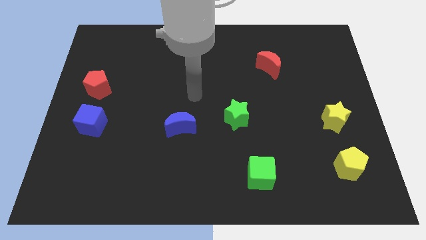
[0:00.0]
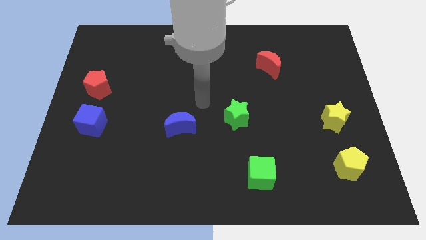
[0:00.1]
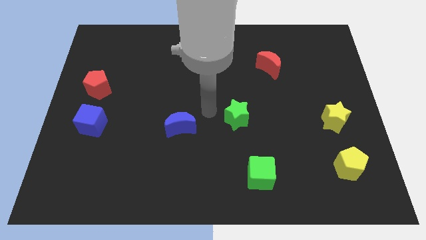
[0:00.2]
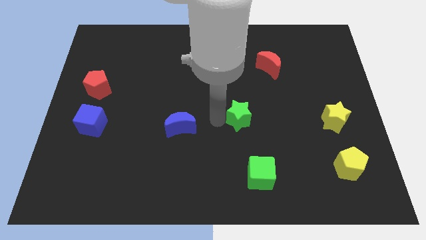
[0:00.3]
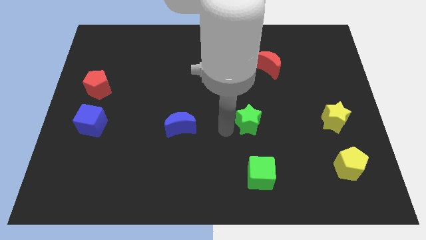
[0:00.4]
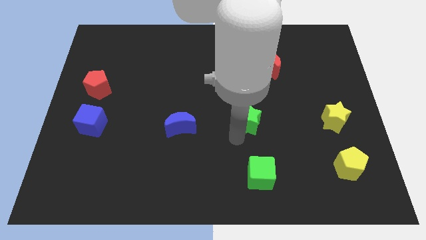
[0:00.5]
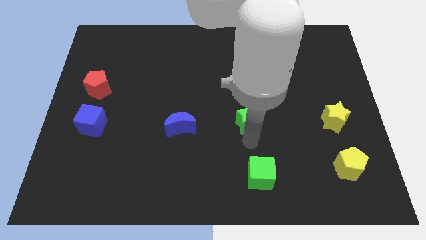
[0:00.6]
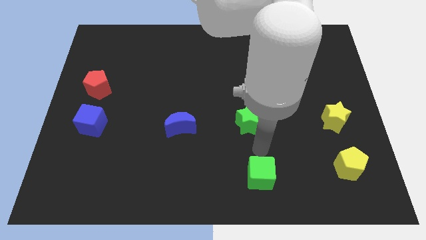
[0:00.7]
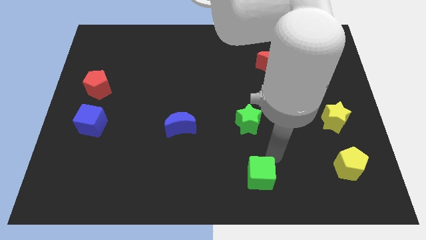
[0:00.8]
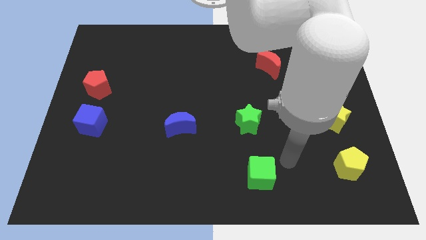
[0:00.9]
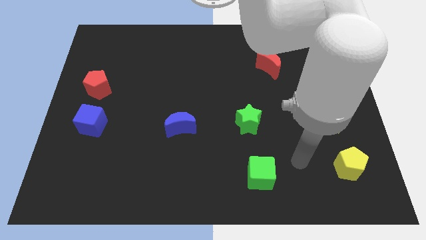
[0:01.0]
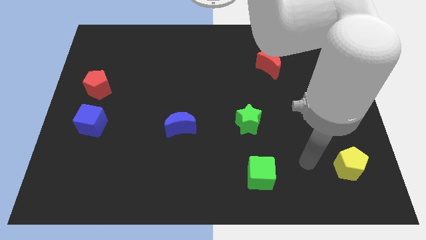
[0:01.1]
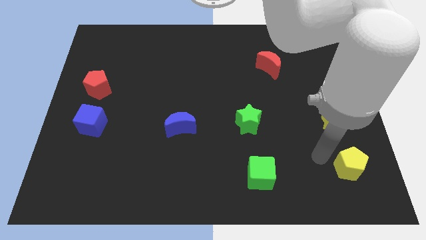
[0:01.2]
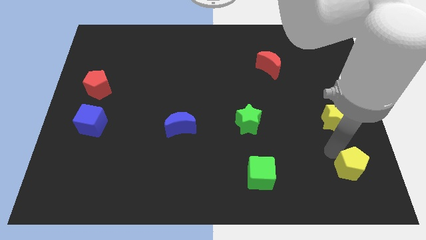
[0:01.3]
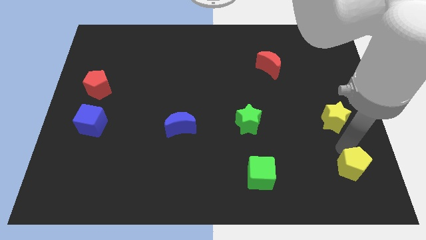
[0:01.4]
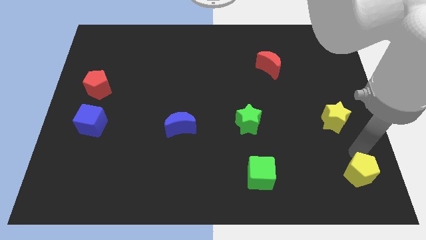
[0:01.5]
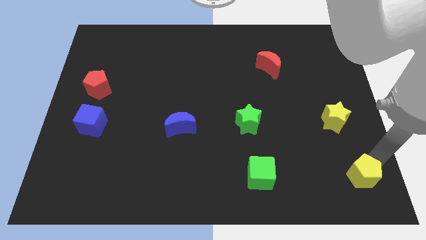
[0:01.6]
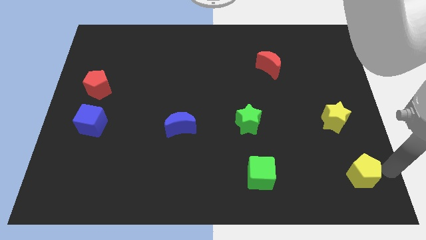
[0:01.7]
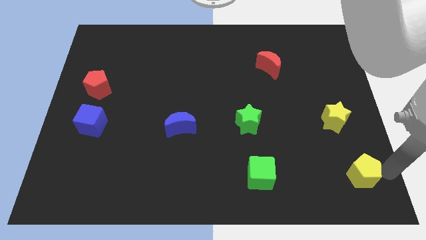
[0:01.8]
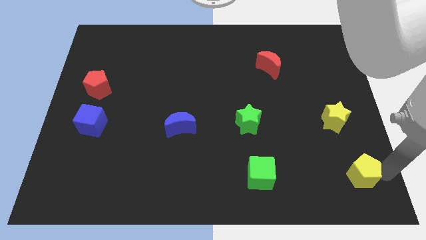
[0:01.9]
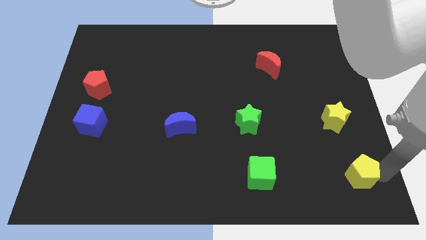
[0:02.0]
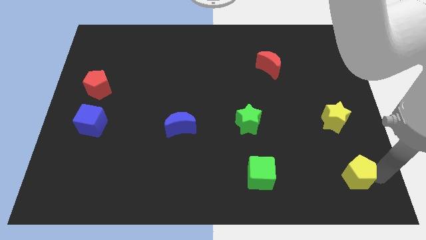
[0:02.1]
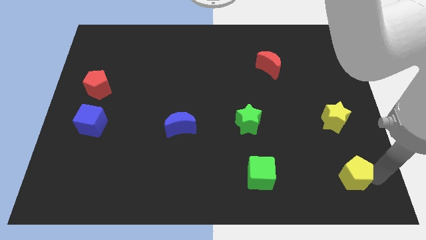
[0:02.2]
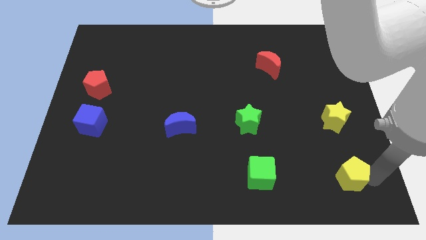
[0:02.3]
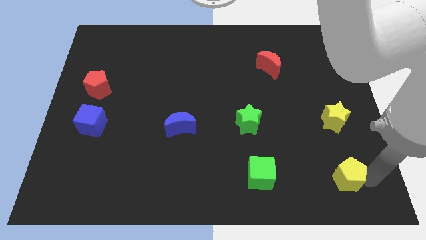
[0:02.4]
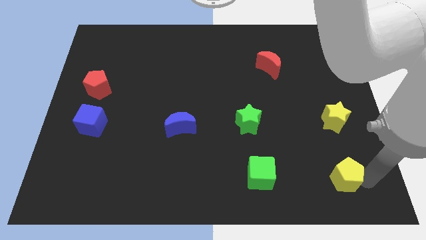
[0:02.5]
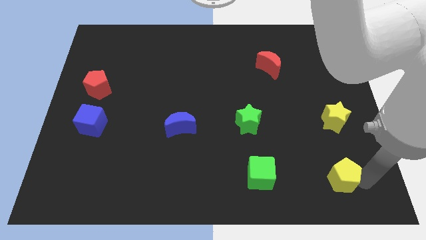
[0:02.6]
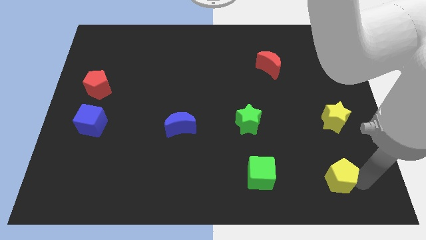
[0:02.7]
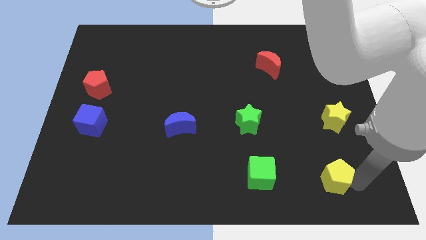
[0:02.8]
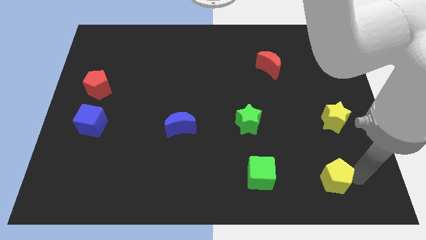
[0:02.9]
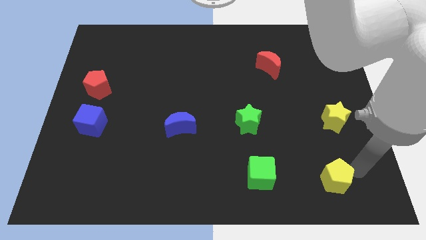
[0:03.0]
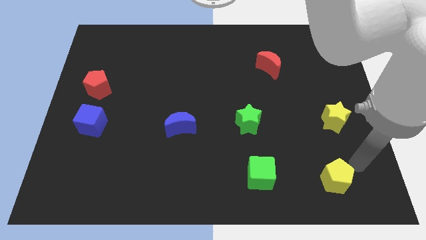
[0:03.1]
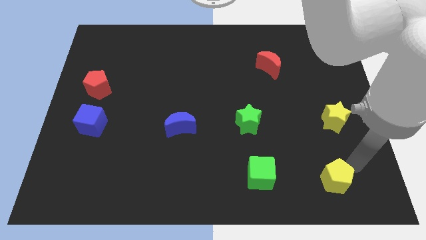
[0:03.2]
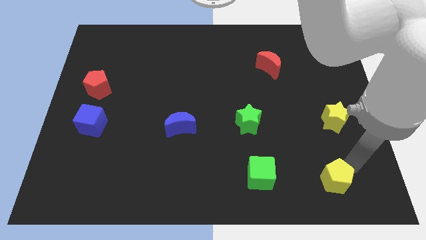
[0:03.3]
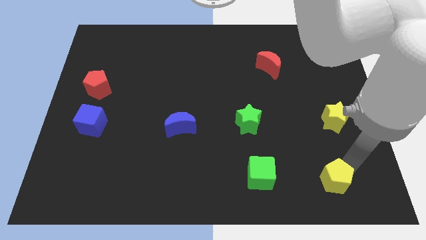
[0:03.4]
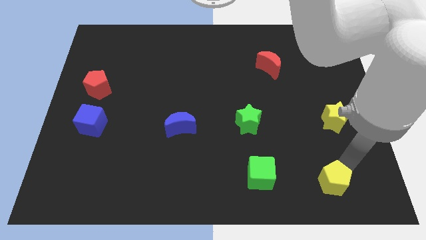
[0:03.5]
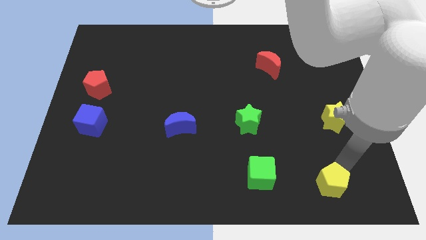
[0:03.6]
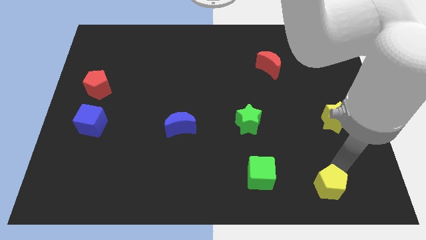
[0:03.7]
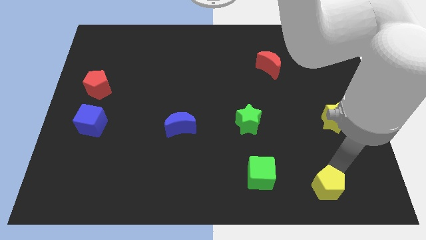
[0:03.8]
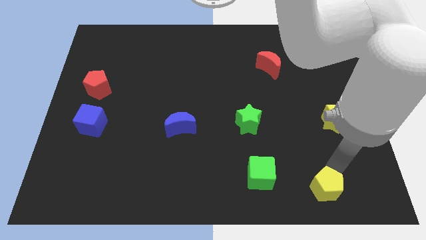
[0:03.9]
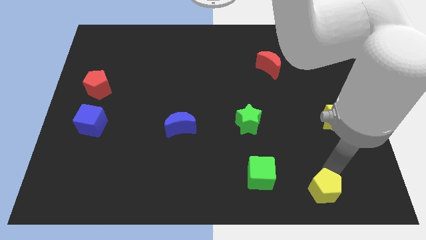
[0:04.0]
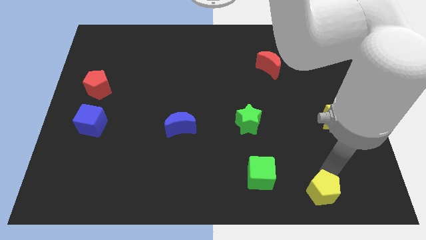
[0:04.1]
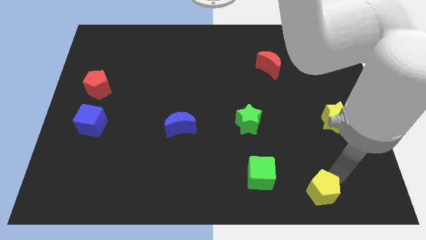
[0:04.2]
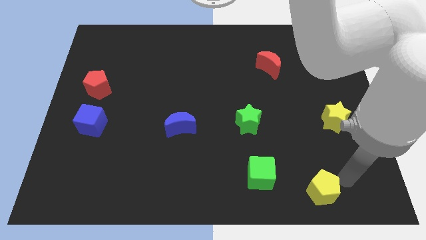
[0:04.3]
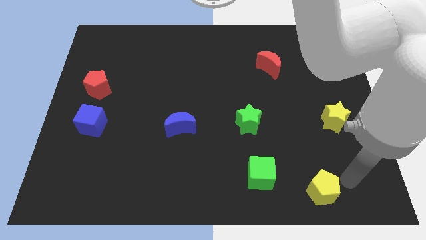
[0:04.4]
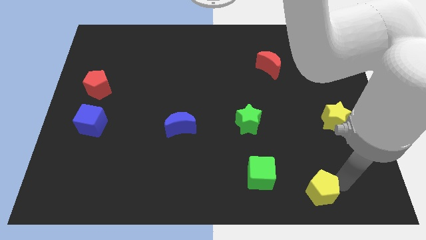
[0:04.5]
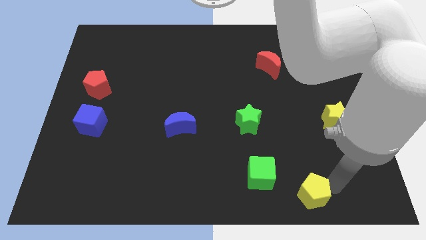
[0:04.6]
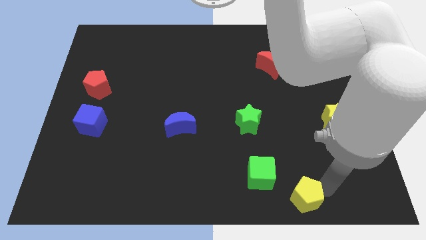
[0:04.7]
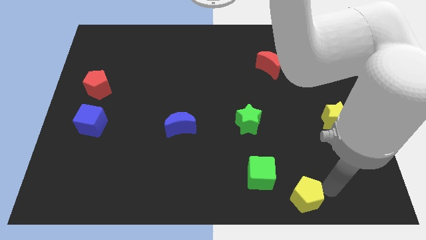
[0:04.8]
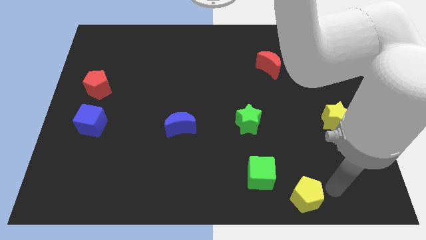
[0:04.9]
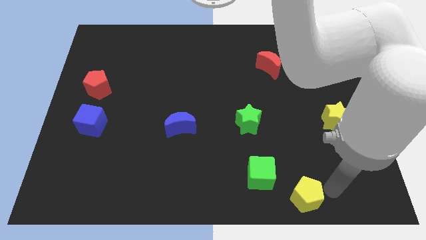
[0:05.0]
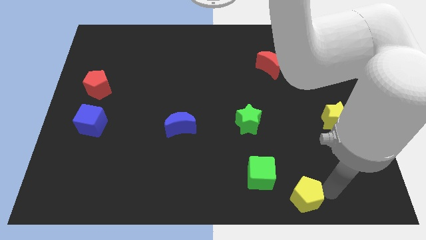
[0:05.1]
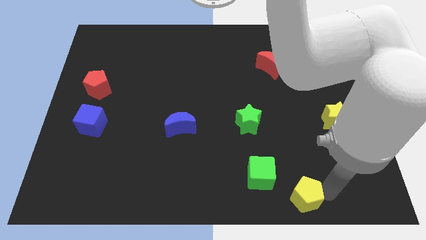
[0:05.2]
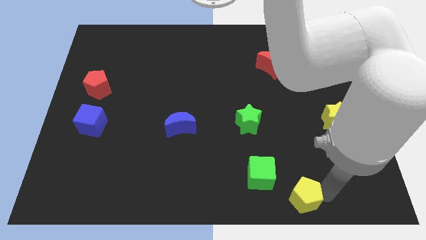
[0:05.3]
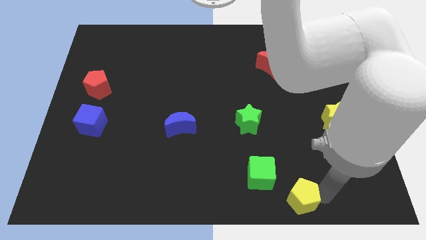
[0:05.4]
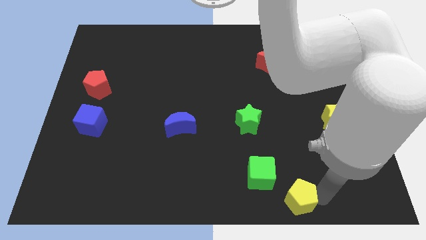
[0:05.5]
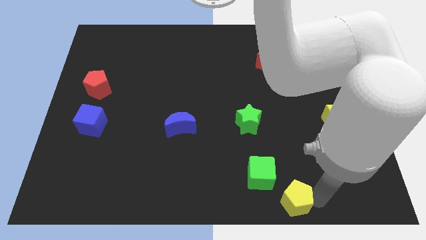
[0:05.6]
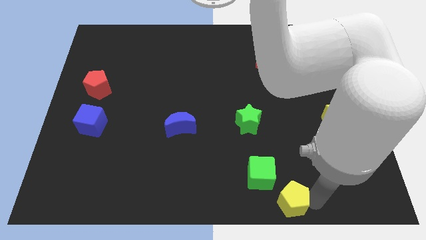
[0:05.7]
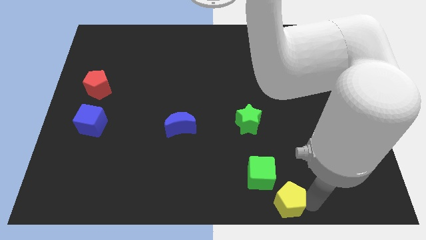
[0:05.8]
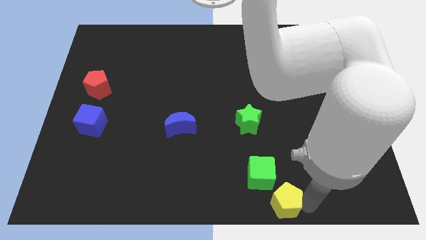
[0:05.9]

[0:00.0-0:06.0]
slide the yellow pentagon to the bottom

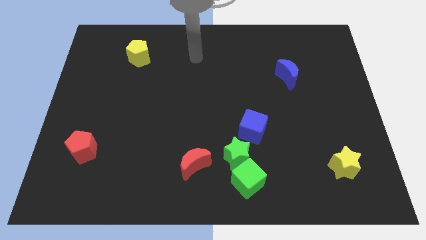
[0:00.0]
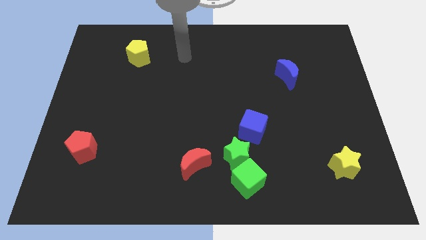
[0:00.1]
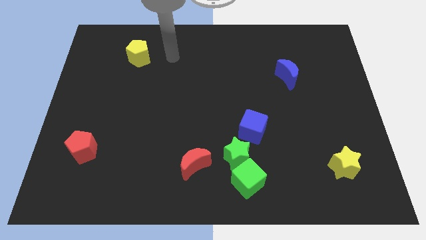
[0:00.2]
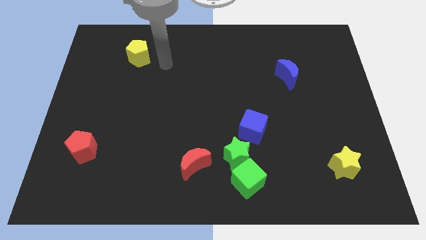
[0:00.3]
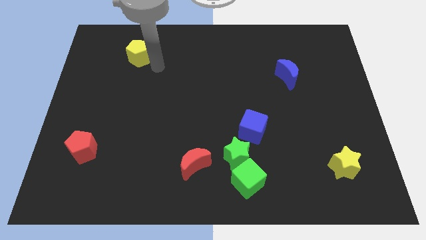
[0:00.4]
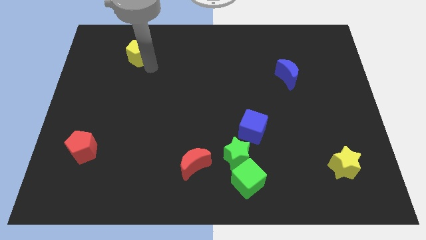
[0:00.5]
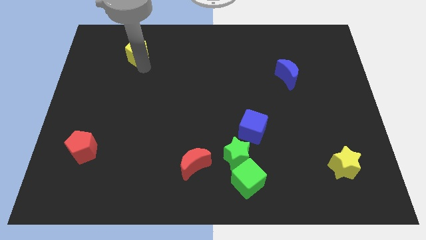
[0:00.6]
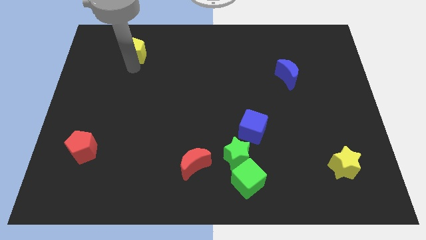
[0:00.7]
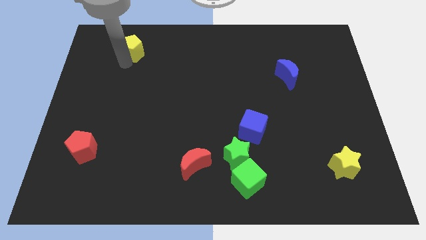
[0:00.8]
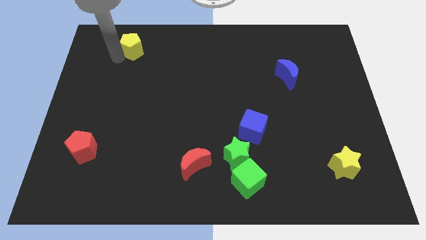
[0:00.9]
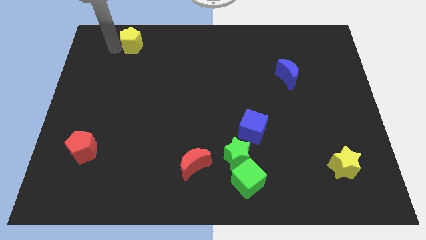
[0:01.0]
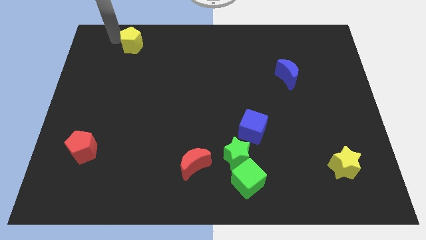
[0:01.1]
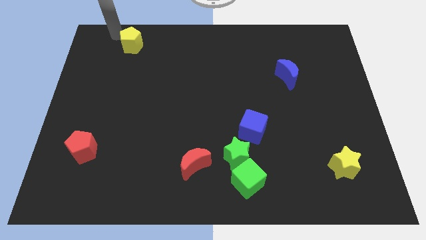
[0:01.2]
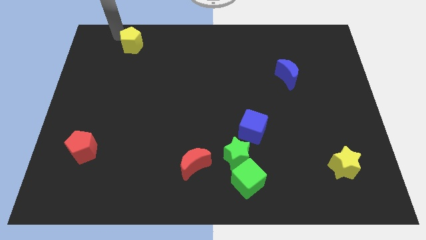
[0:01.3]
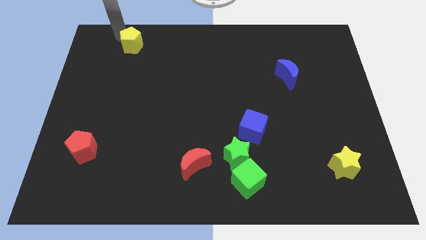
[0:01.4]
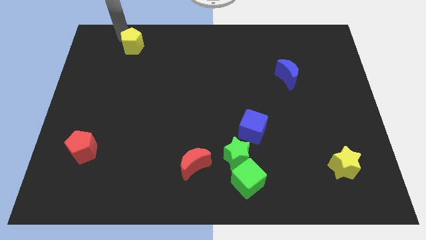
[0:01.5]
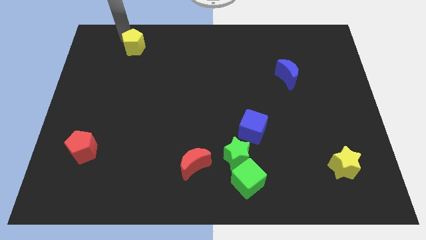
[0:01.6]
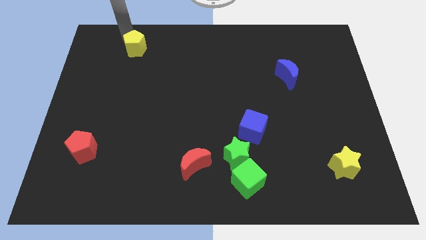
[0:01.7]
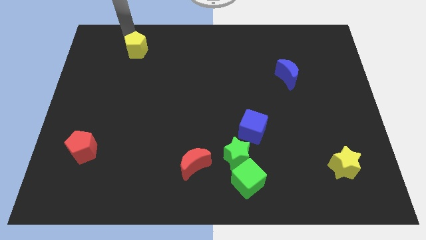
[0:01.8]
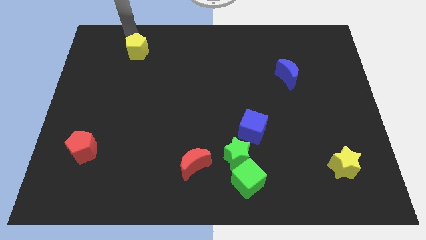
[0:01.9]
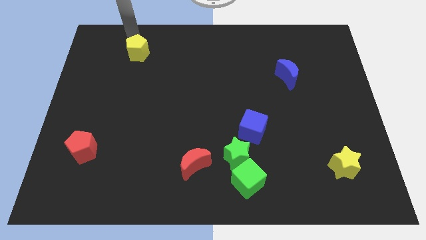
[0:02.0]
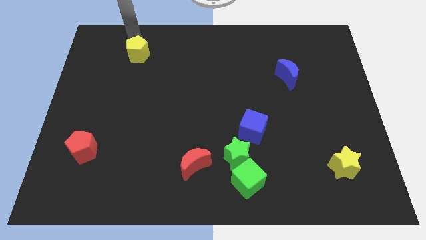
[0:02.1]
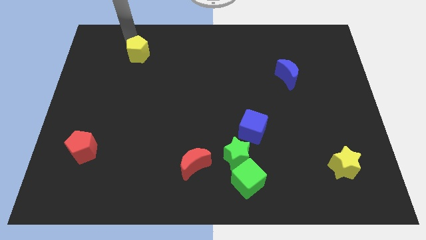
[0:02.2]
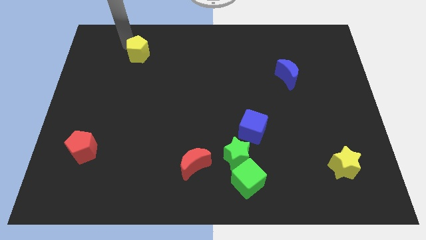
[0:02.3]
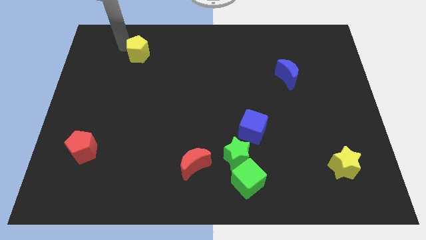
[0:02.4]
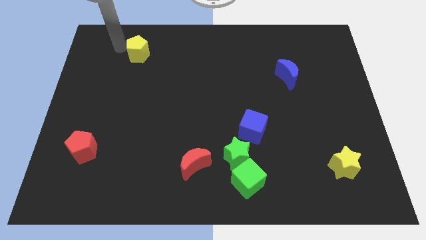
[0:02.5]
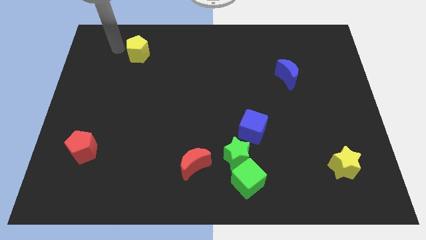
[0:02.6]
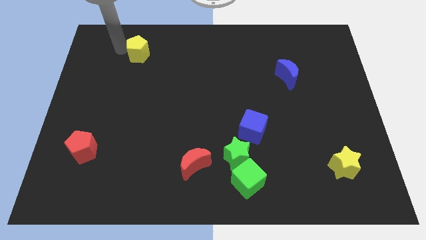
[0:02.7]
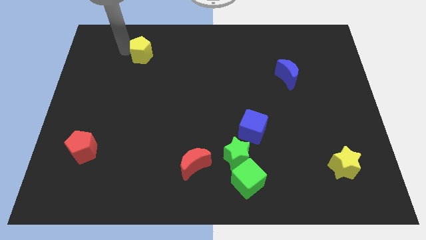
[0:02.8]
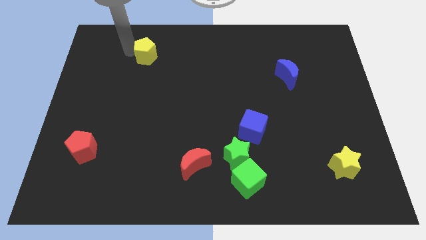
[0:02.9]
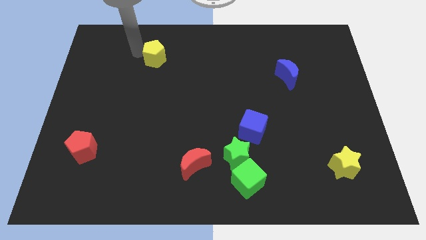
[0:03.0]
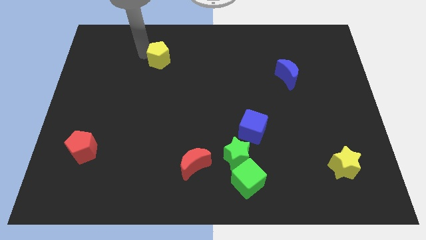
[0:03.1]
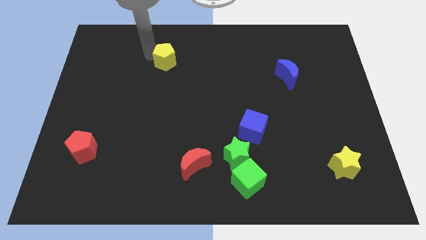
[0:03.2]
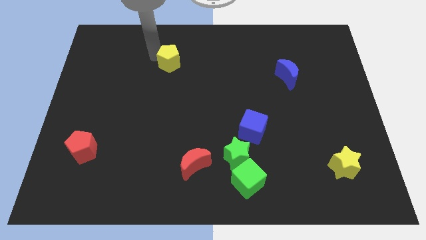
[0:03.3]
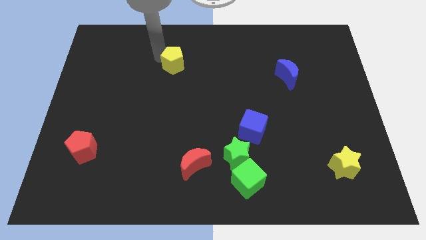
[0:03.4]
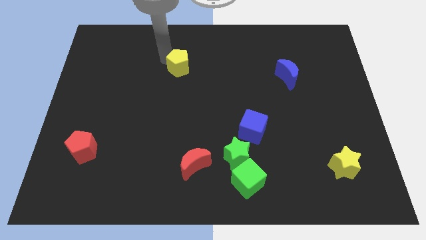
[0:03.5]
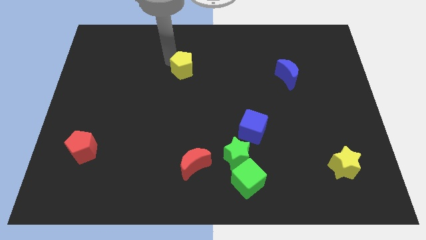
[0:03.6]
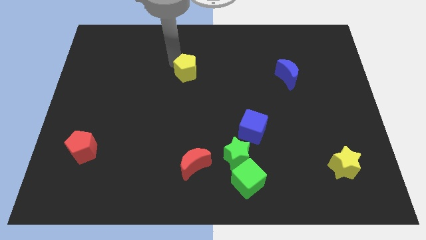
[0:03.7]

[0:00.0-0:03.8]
slide the yellow pentagon to the center of the board
